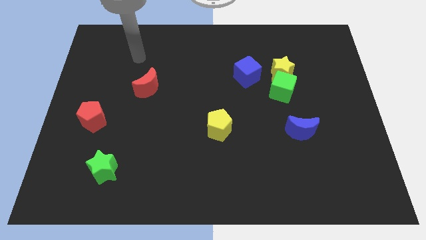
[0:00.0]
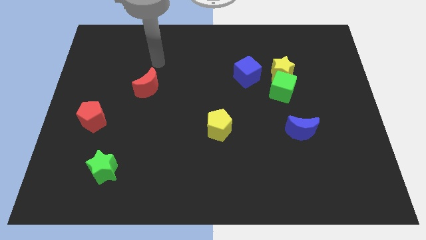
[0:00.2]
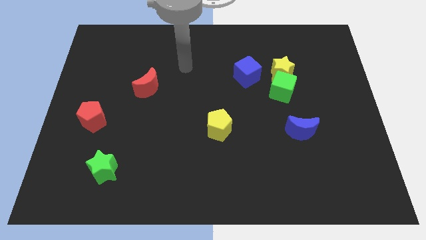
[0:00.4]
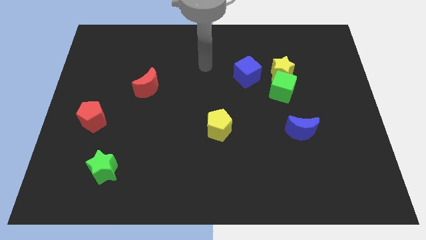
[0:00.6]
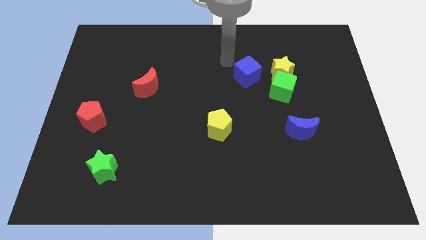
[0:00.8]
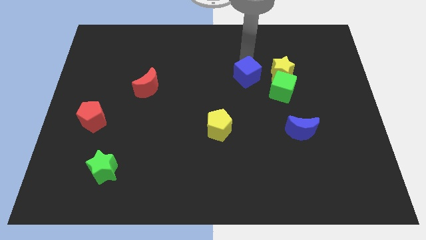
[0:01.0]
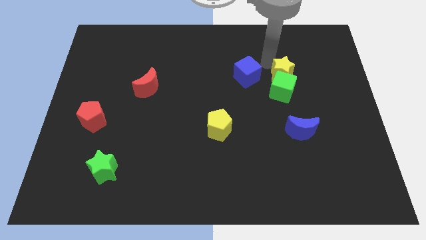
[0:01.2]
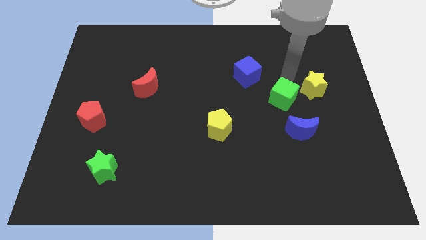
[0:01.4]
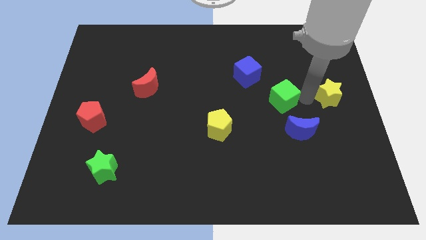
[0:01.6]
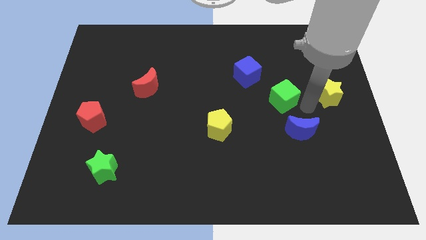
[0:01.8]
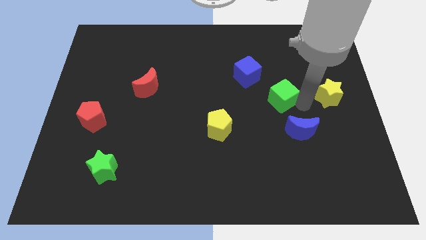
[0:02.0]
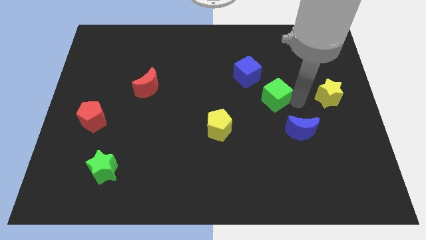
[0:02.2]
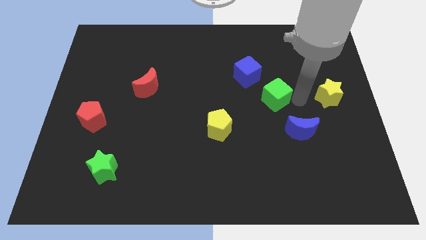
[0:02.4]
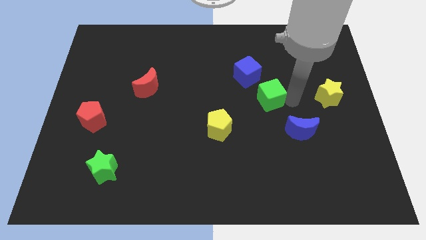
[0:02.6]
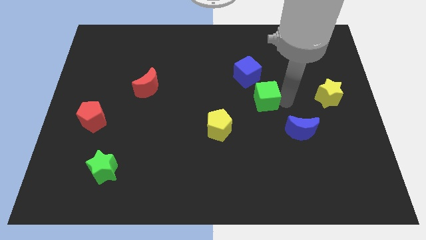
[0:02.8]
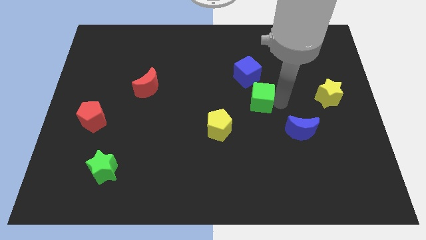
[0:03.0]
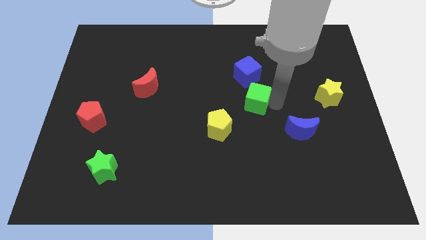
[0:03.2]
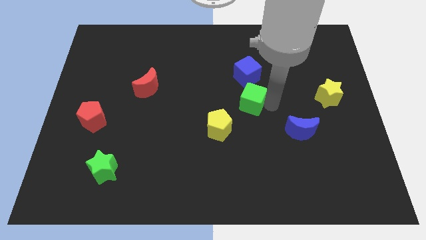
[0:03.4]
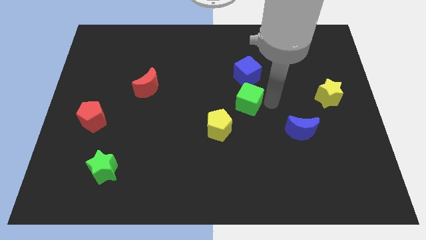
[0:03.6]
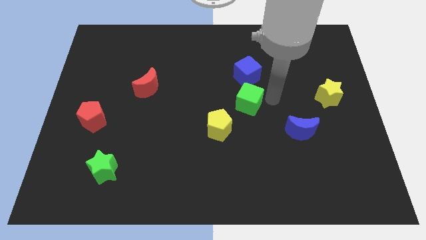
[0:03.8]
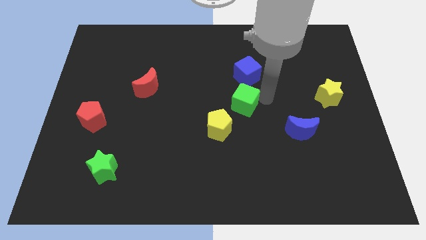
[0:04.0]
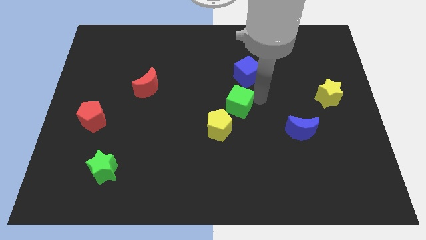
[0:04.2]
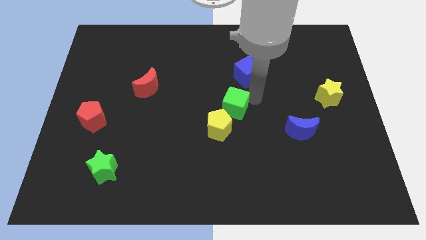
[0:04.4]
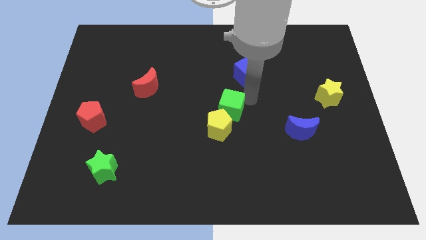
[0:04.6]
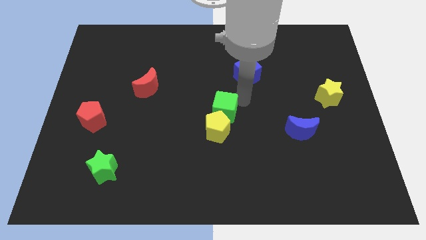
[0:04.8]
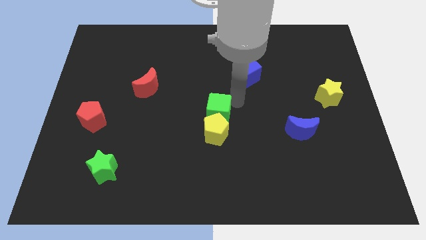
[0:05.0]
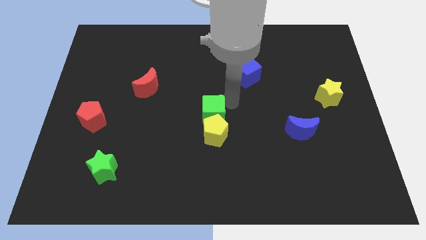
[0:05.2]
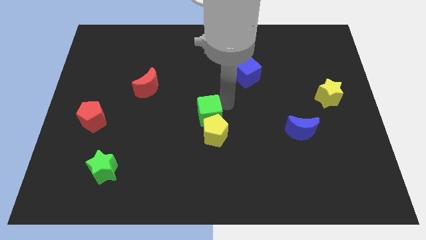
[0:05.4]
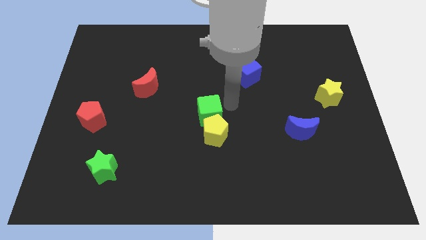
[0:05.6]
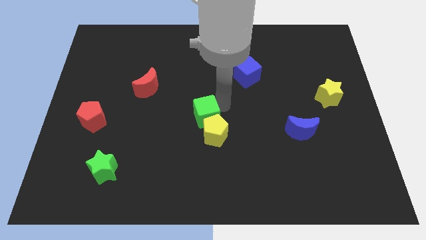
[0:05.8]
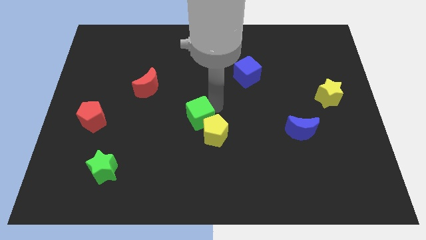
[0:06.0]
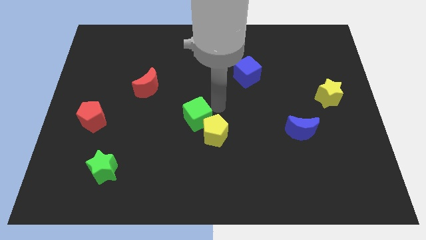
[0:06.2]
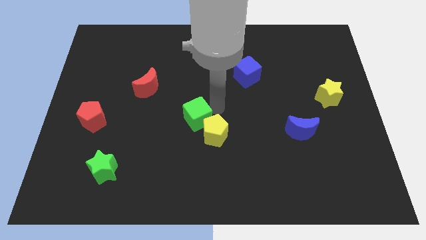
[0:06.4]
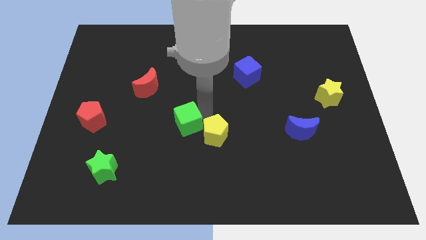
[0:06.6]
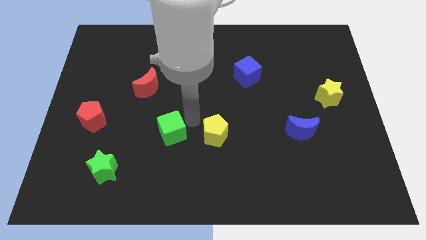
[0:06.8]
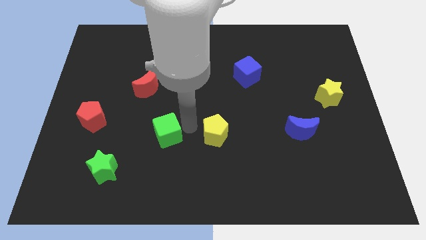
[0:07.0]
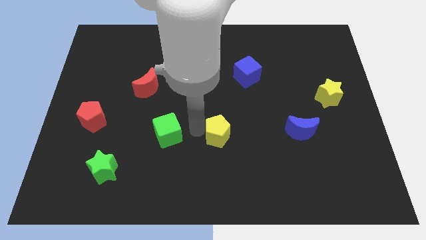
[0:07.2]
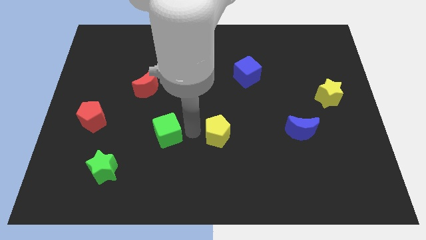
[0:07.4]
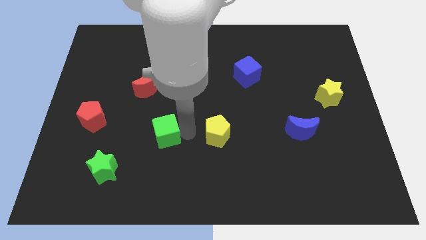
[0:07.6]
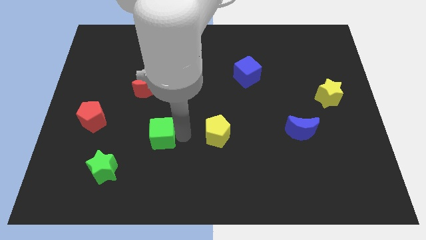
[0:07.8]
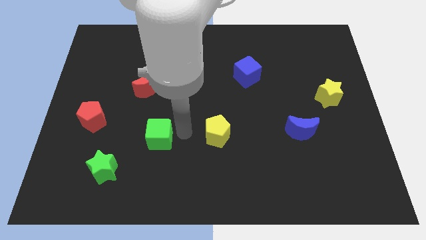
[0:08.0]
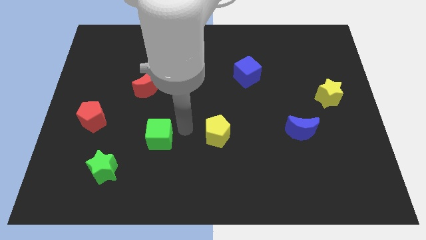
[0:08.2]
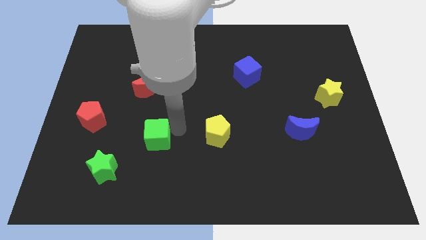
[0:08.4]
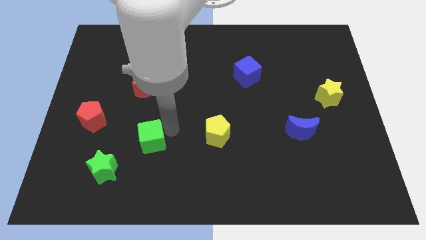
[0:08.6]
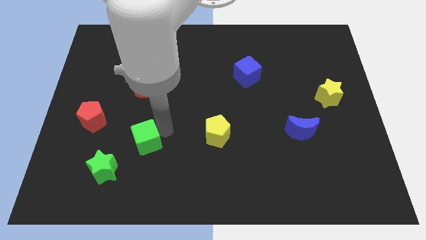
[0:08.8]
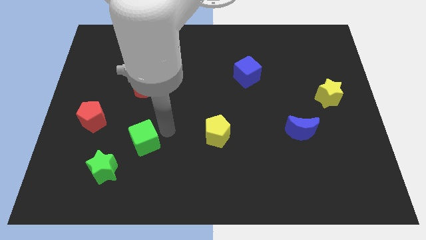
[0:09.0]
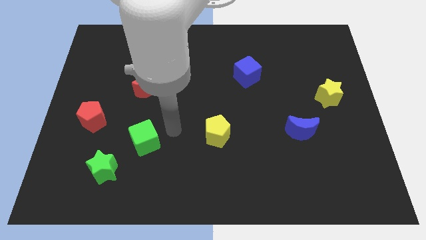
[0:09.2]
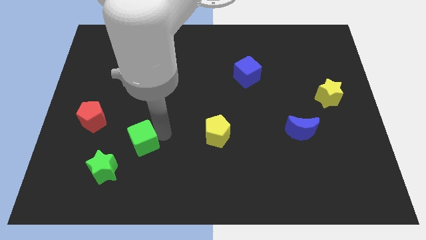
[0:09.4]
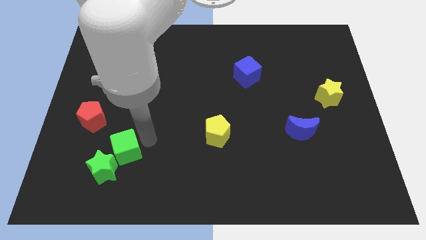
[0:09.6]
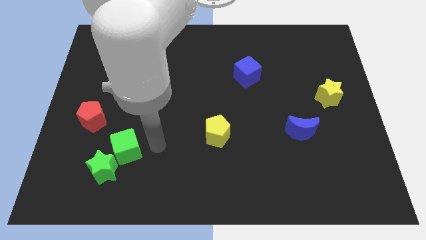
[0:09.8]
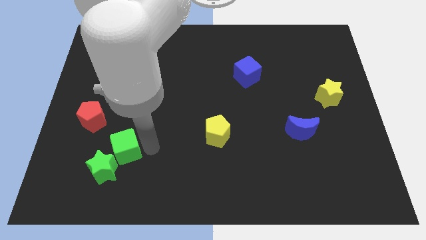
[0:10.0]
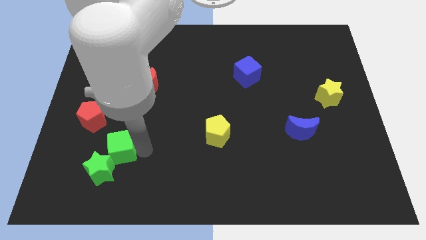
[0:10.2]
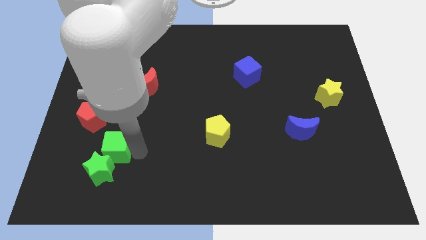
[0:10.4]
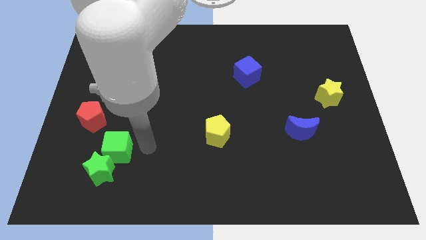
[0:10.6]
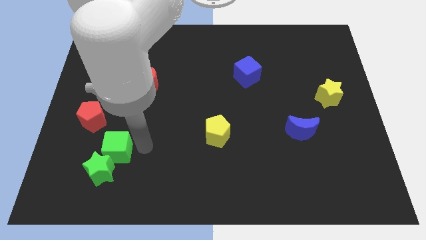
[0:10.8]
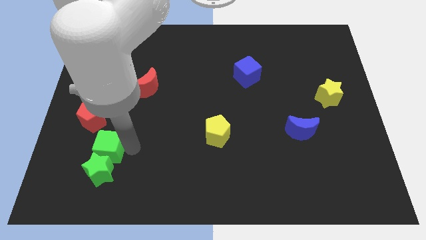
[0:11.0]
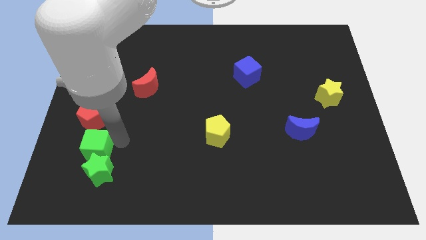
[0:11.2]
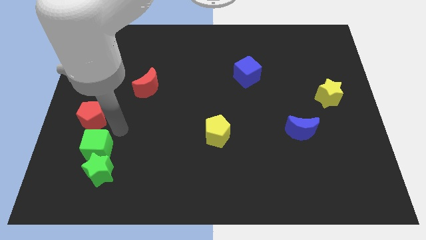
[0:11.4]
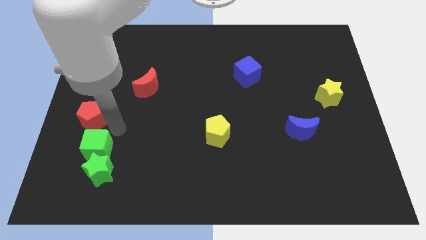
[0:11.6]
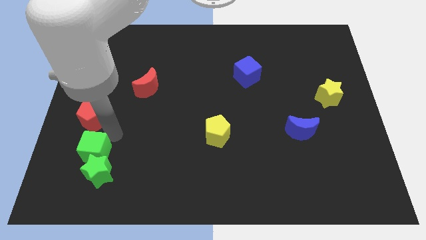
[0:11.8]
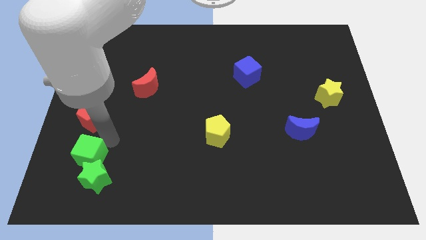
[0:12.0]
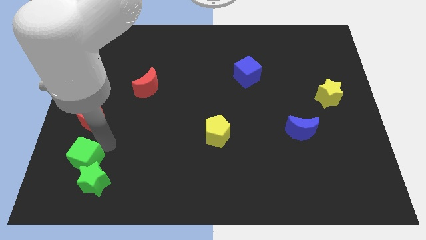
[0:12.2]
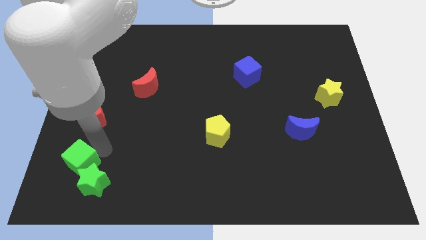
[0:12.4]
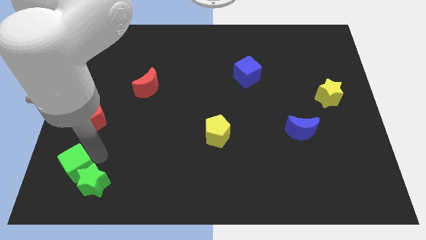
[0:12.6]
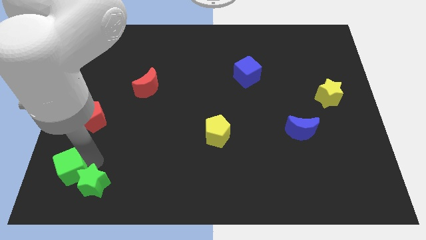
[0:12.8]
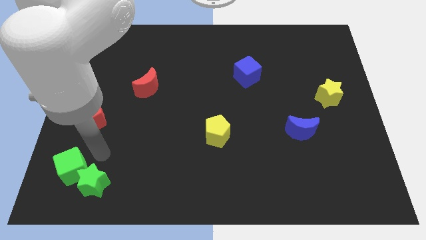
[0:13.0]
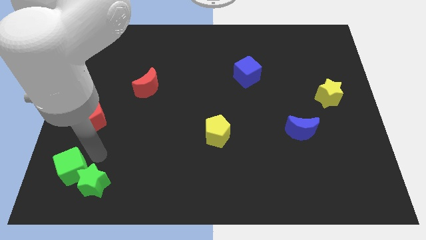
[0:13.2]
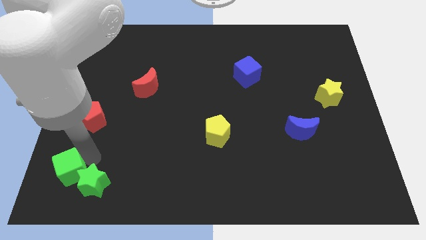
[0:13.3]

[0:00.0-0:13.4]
push the green cube to the bottom left corner
